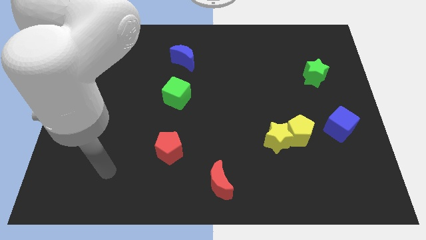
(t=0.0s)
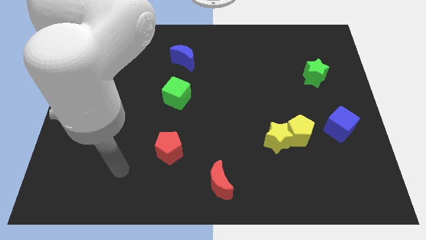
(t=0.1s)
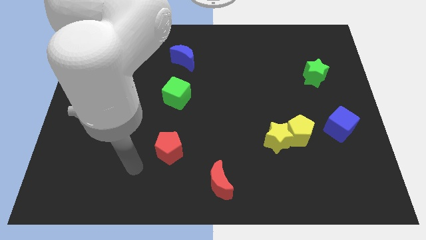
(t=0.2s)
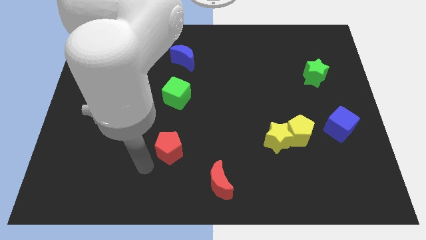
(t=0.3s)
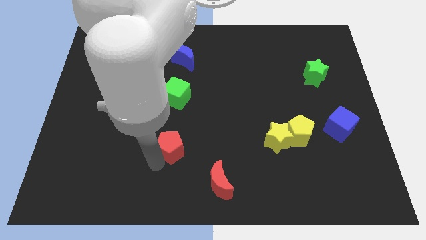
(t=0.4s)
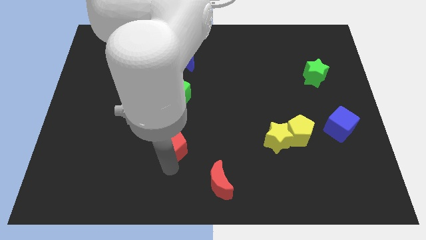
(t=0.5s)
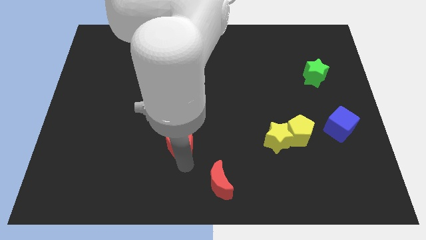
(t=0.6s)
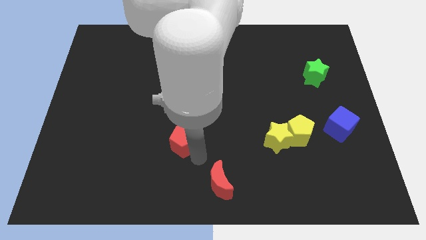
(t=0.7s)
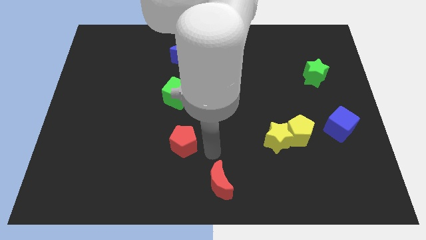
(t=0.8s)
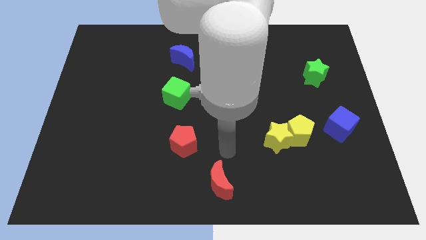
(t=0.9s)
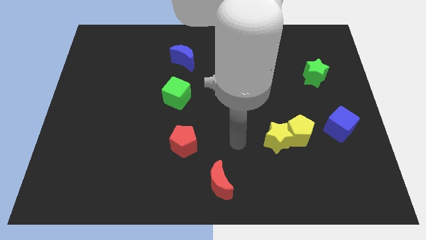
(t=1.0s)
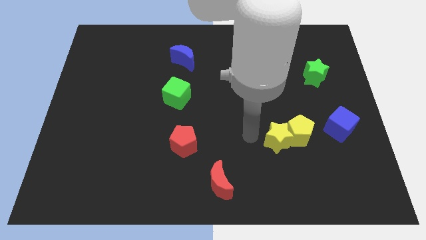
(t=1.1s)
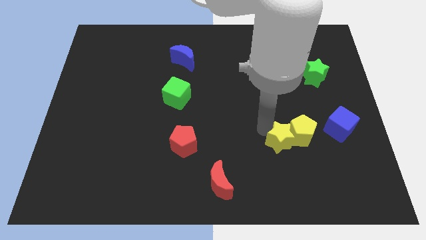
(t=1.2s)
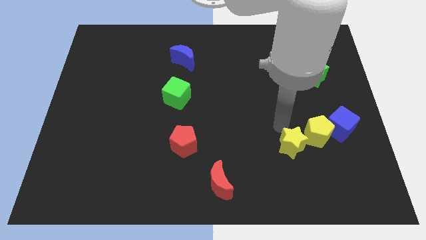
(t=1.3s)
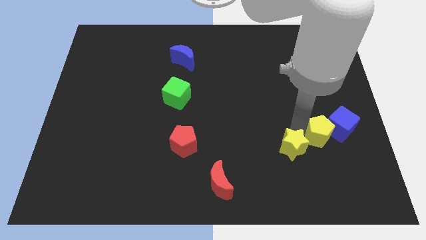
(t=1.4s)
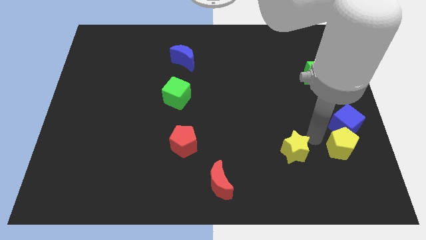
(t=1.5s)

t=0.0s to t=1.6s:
pull the yellow star apart from the yellow pentagon

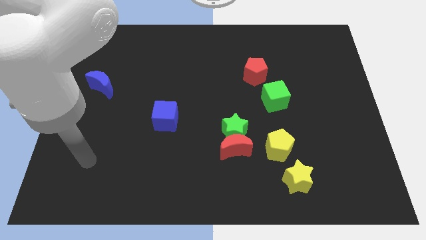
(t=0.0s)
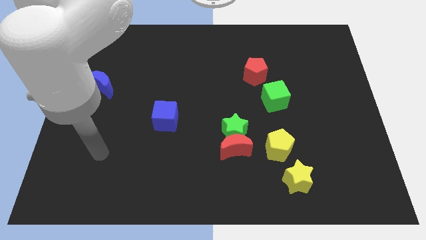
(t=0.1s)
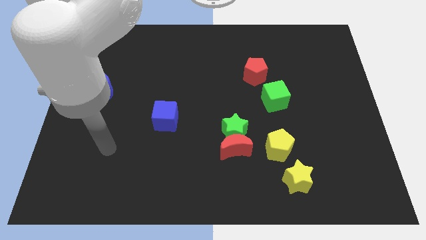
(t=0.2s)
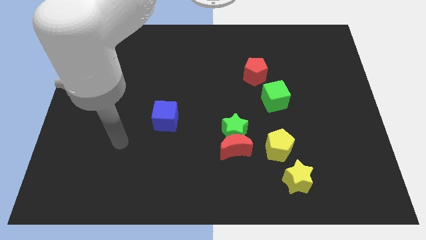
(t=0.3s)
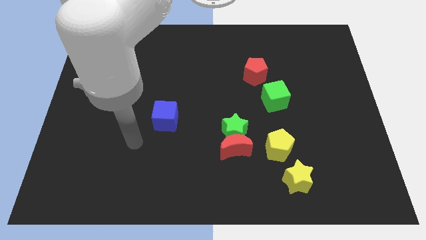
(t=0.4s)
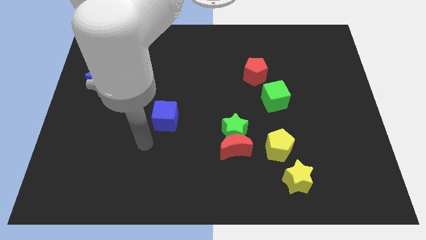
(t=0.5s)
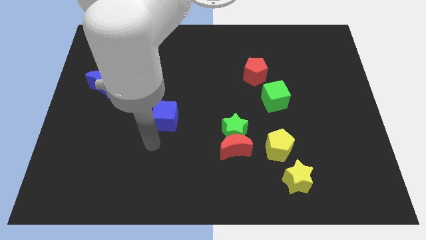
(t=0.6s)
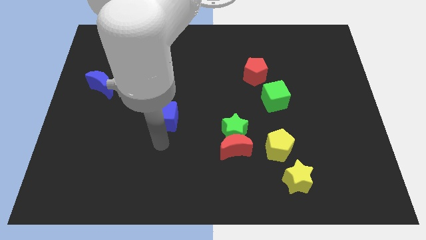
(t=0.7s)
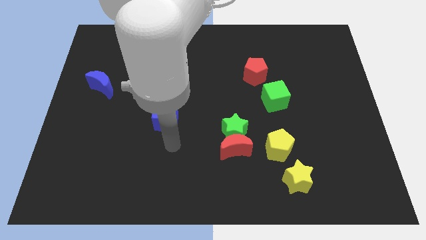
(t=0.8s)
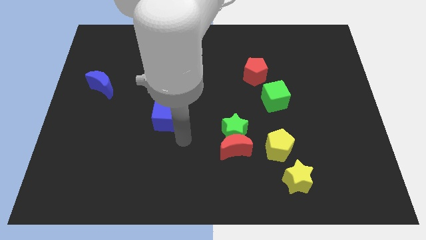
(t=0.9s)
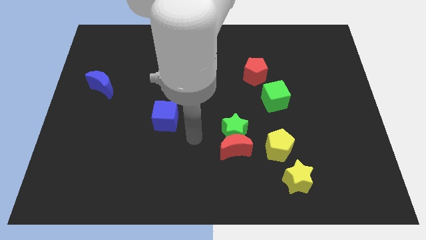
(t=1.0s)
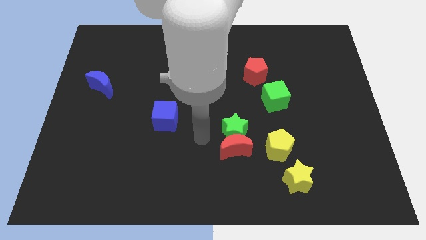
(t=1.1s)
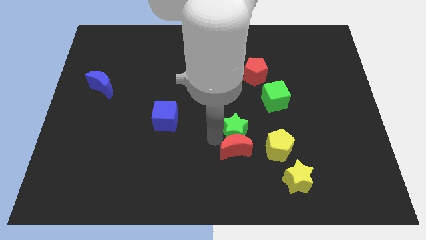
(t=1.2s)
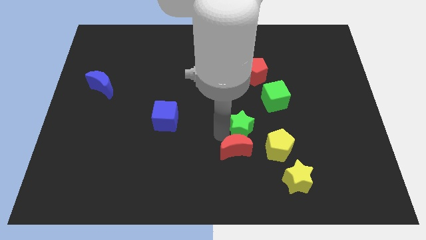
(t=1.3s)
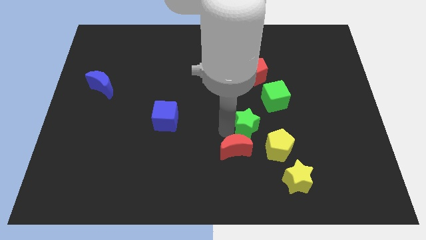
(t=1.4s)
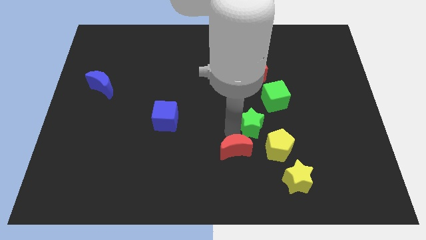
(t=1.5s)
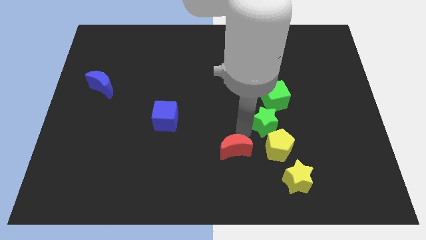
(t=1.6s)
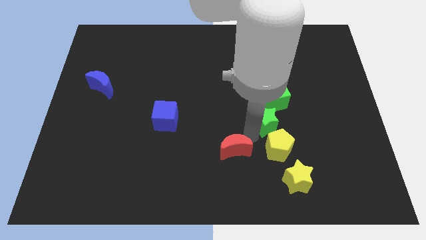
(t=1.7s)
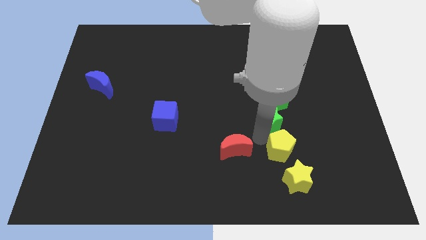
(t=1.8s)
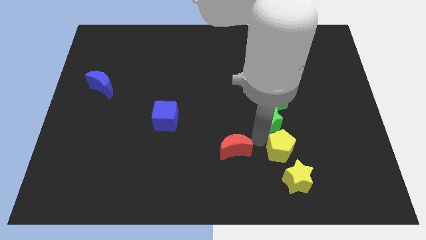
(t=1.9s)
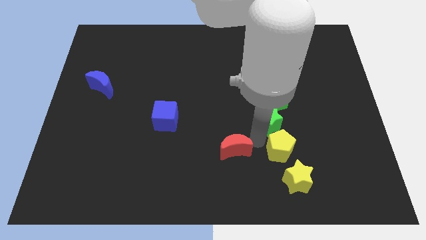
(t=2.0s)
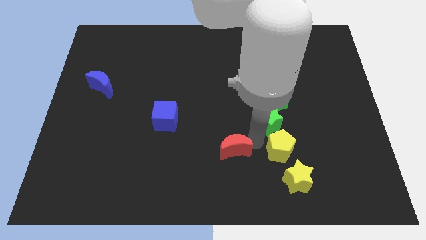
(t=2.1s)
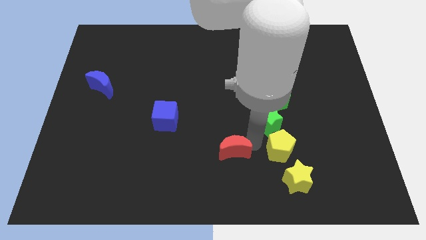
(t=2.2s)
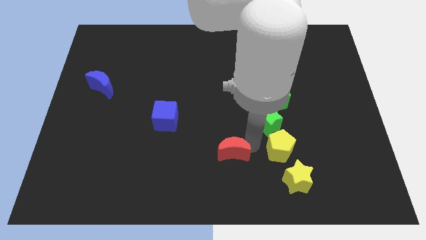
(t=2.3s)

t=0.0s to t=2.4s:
move the red moon away from the green star and yellow pentagon

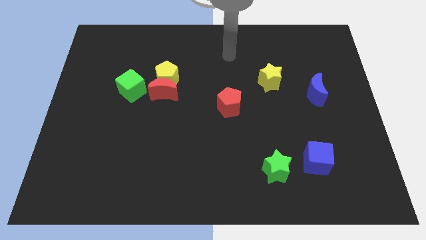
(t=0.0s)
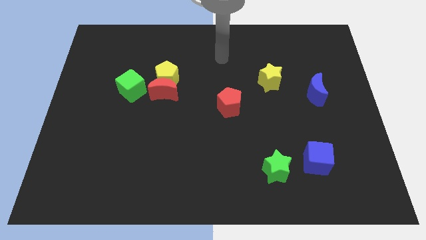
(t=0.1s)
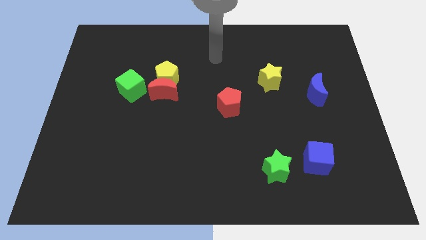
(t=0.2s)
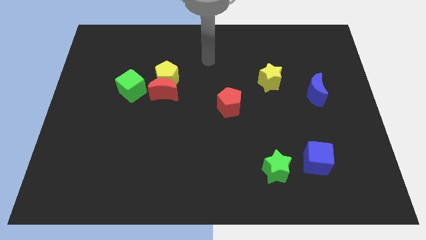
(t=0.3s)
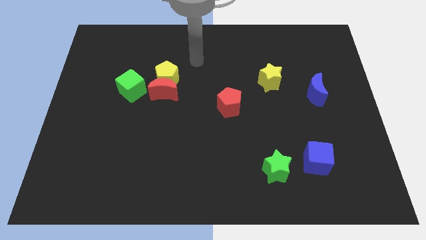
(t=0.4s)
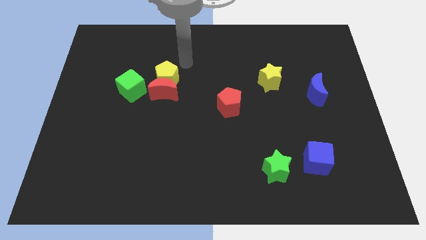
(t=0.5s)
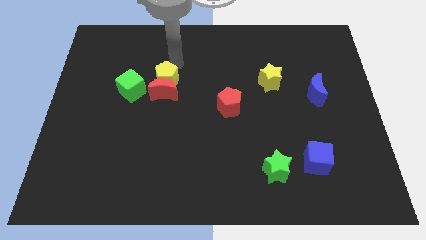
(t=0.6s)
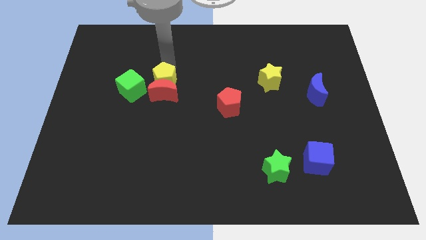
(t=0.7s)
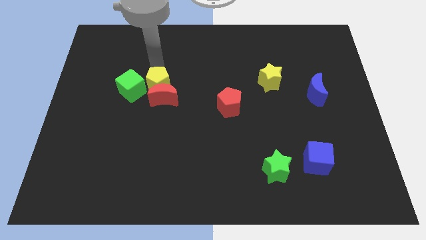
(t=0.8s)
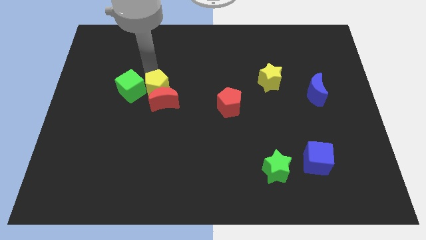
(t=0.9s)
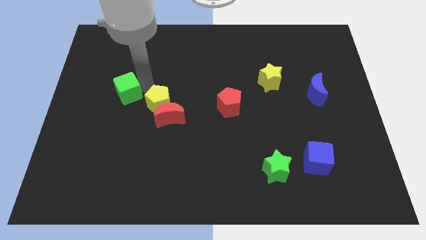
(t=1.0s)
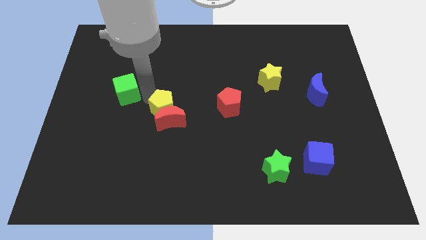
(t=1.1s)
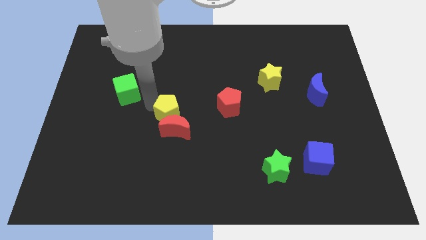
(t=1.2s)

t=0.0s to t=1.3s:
pull the red moon apart from the yellow pentagon and green cube

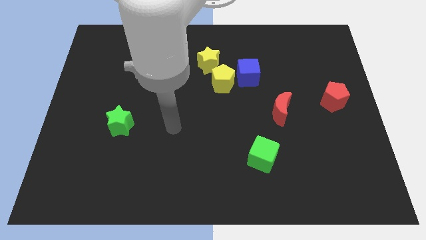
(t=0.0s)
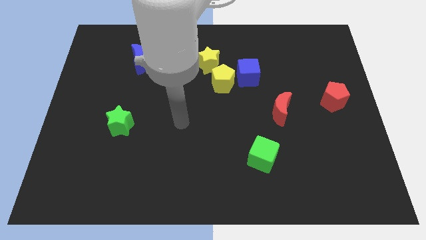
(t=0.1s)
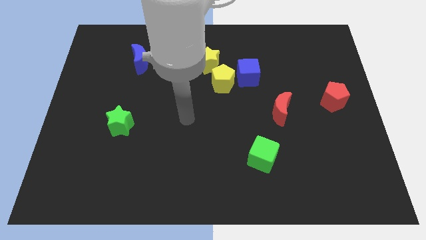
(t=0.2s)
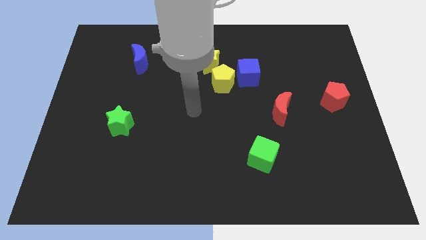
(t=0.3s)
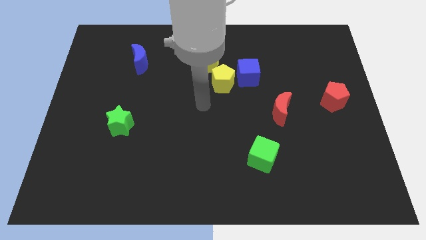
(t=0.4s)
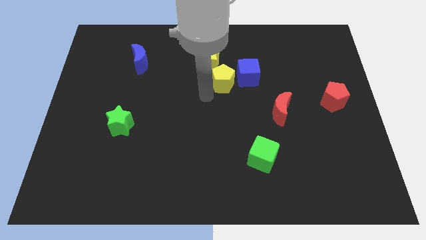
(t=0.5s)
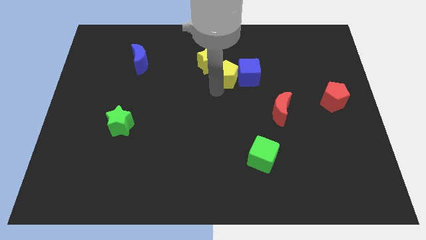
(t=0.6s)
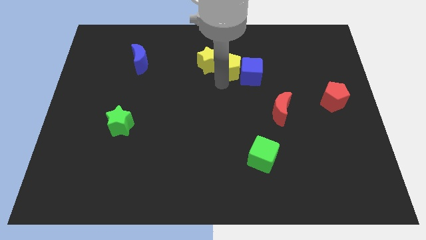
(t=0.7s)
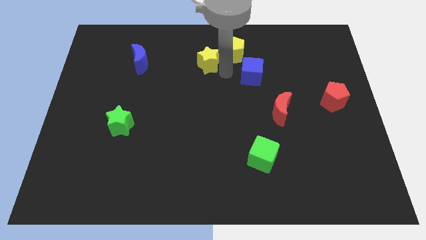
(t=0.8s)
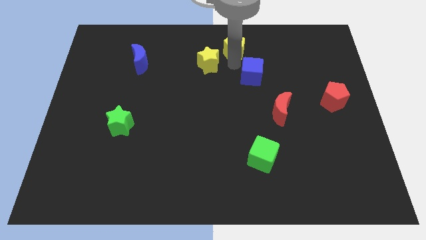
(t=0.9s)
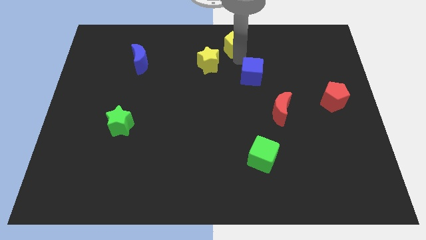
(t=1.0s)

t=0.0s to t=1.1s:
pull the blue cube apart from the yellow pentagon

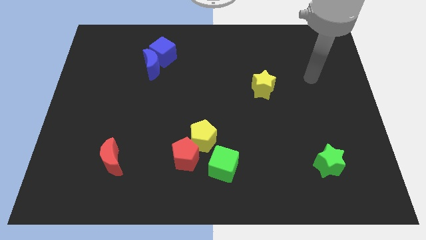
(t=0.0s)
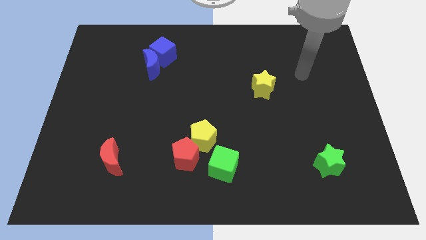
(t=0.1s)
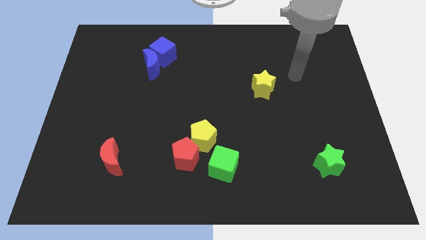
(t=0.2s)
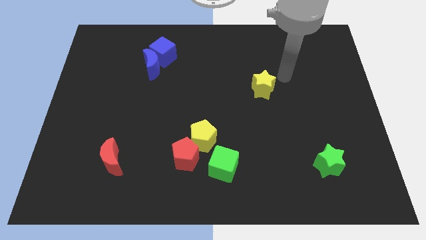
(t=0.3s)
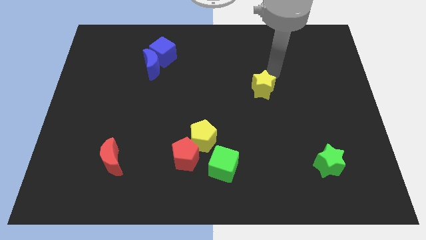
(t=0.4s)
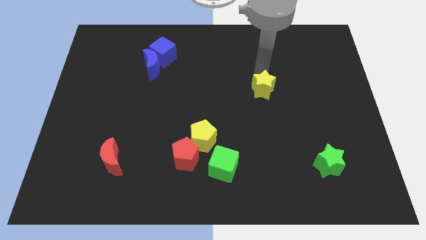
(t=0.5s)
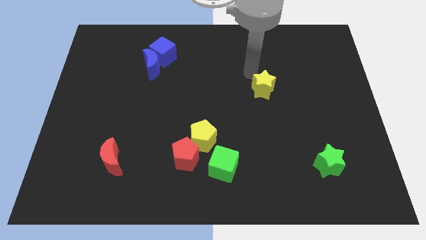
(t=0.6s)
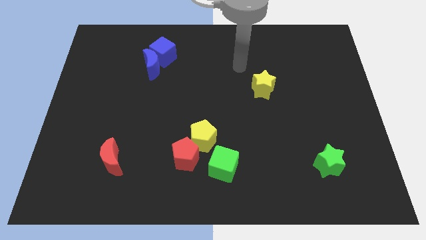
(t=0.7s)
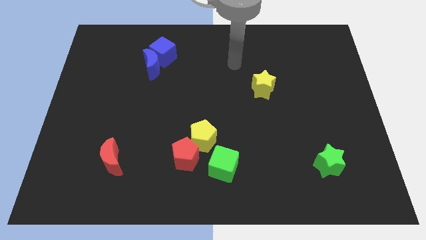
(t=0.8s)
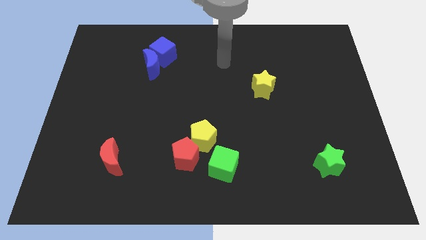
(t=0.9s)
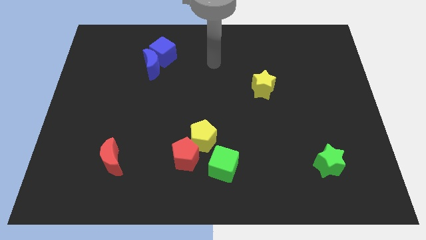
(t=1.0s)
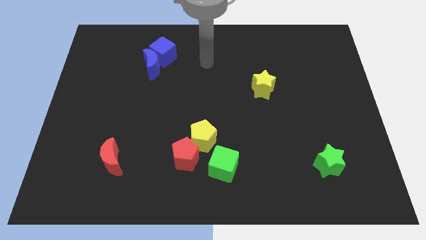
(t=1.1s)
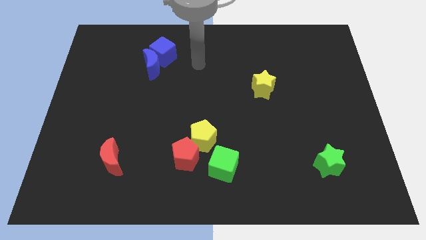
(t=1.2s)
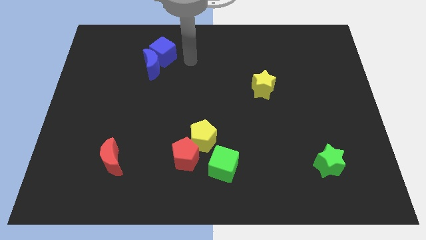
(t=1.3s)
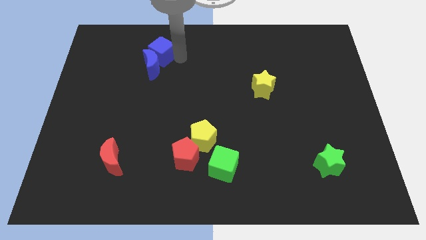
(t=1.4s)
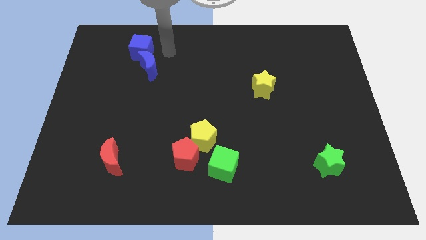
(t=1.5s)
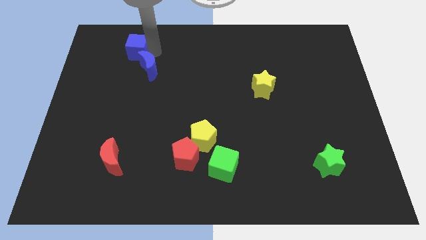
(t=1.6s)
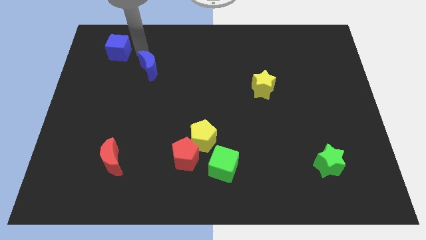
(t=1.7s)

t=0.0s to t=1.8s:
pull the blue moon apart from the blue cube

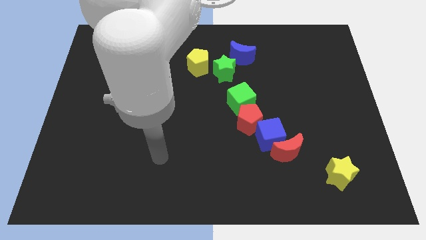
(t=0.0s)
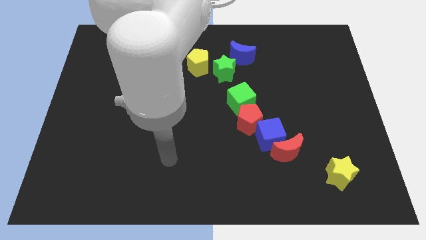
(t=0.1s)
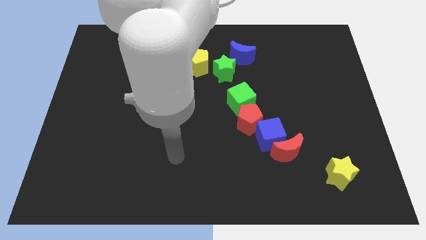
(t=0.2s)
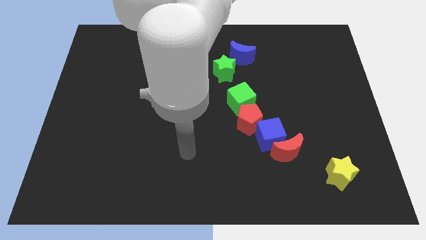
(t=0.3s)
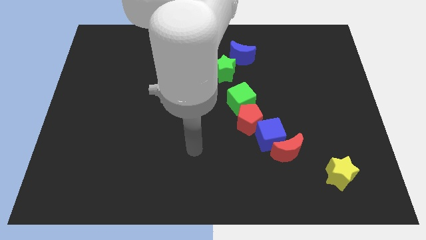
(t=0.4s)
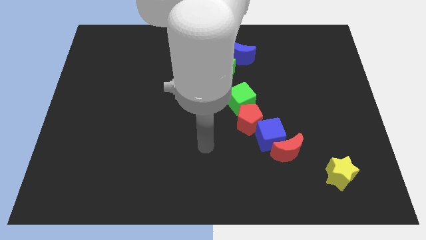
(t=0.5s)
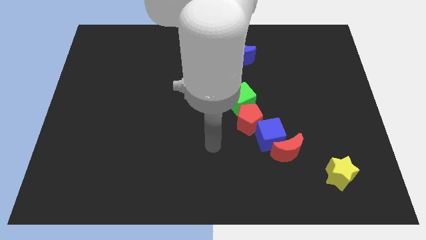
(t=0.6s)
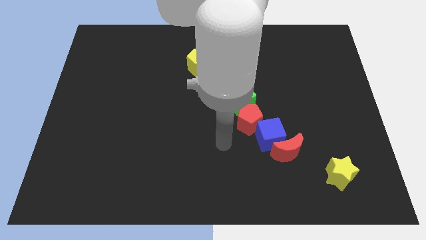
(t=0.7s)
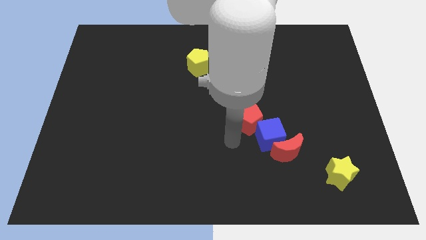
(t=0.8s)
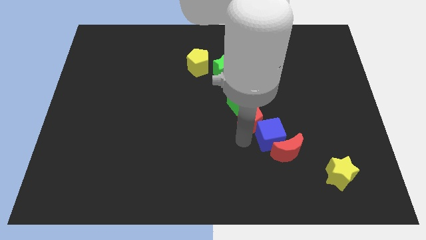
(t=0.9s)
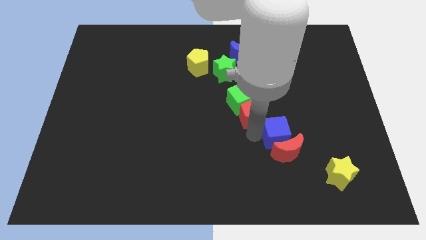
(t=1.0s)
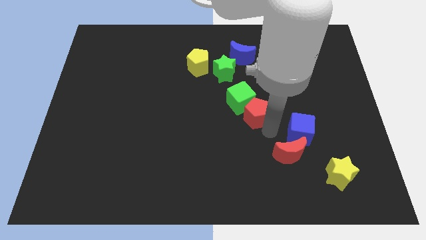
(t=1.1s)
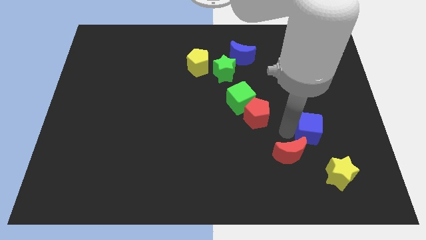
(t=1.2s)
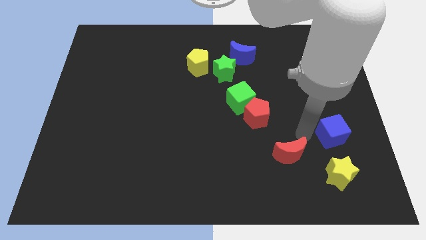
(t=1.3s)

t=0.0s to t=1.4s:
move the red moon away from the blue cube
